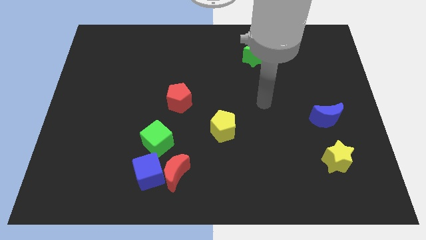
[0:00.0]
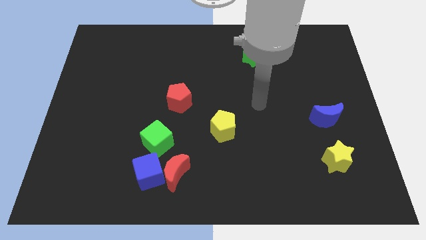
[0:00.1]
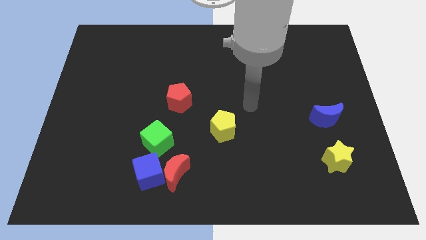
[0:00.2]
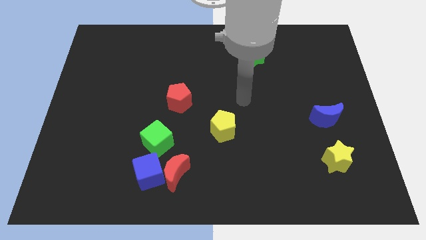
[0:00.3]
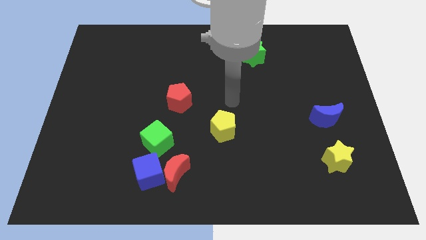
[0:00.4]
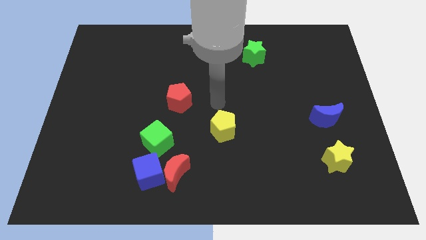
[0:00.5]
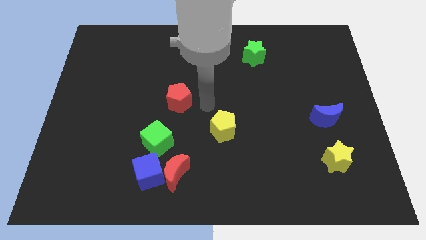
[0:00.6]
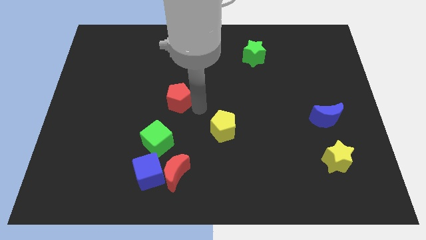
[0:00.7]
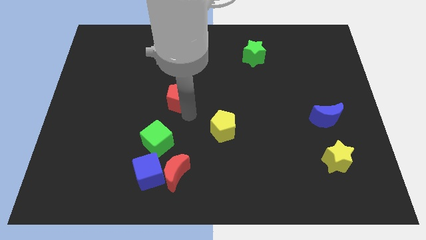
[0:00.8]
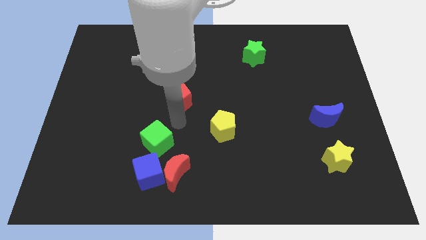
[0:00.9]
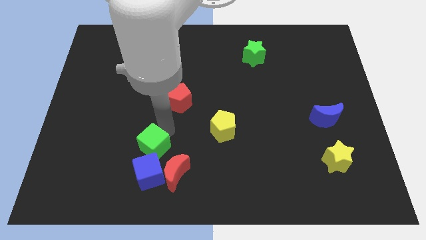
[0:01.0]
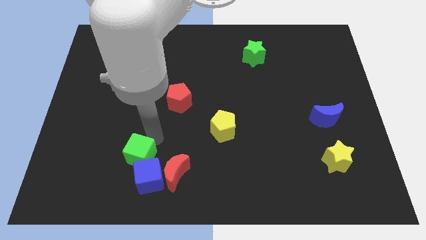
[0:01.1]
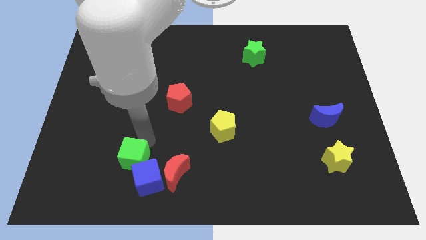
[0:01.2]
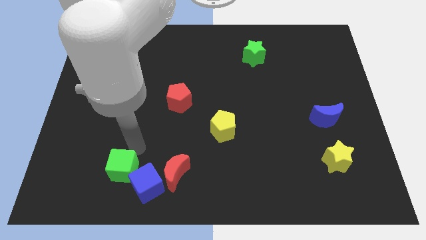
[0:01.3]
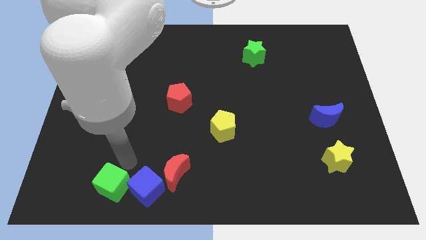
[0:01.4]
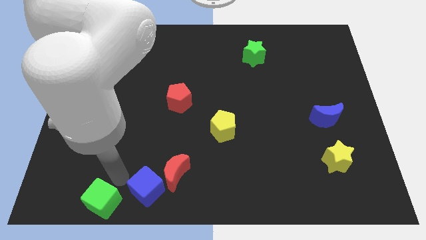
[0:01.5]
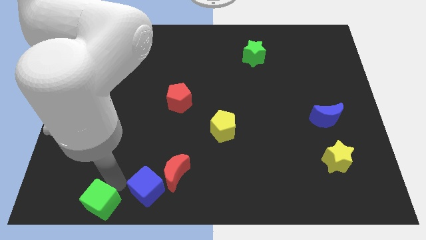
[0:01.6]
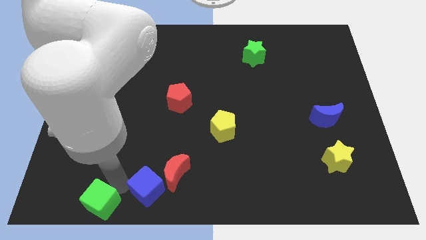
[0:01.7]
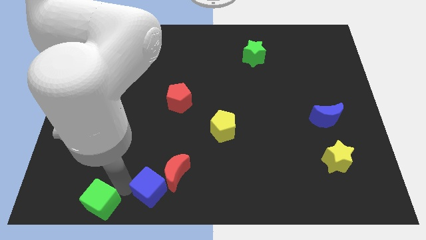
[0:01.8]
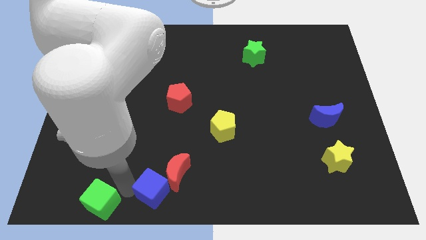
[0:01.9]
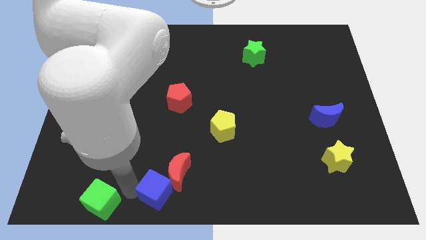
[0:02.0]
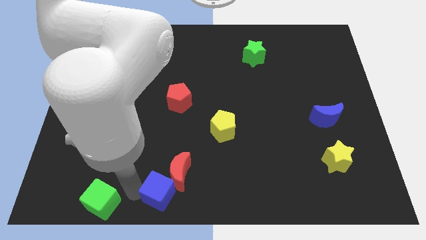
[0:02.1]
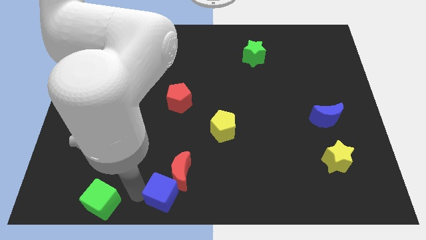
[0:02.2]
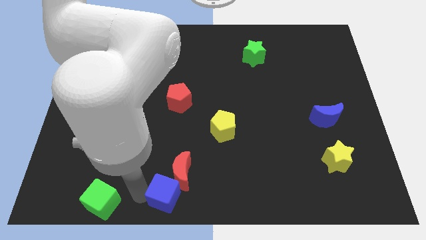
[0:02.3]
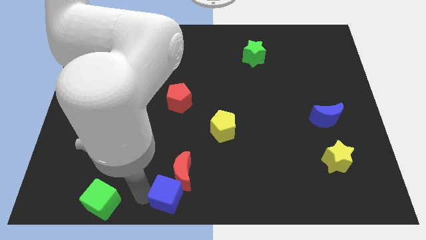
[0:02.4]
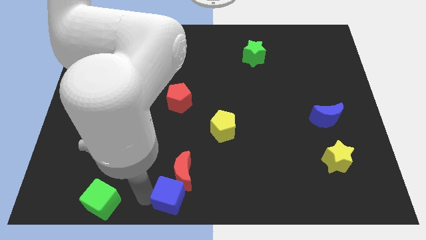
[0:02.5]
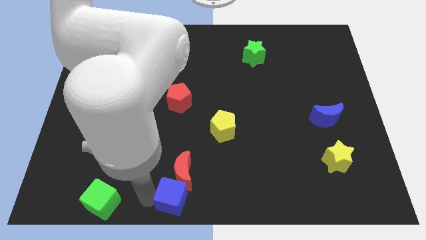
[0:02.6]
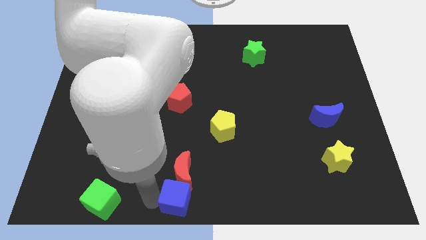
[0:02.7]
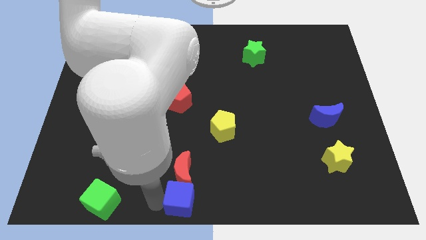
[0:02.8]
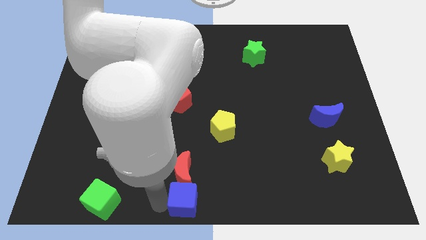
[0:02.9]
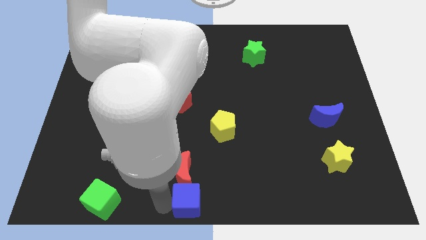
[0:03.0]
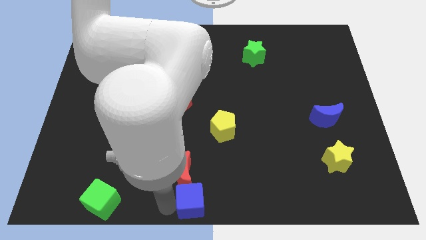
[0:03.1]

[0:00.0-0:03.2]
slide the blue cube right somewhat

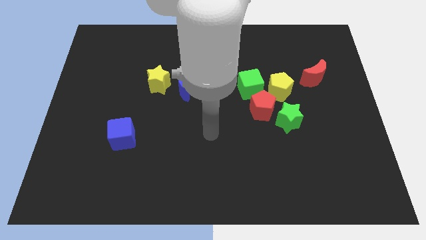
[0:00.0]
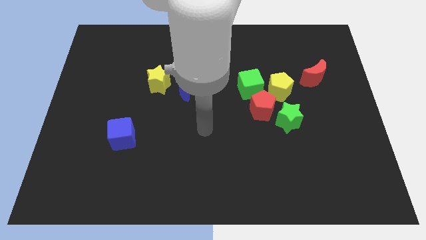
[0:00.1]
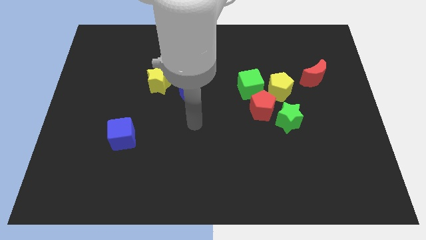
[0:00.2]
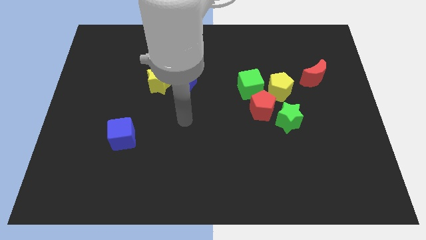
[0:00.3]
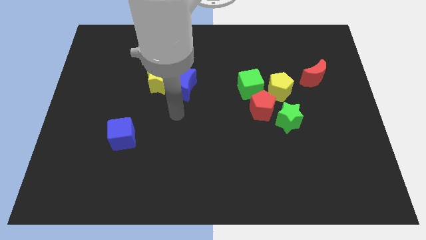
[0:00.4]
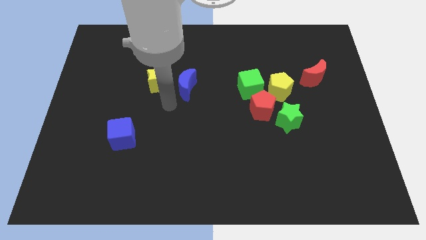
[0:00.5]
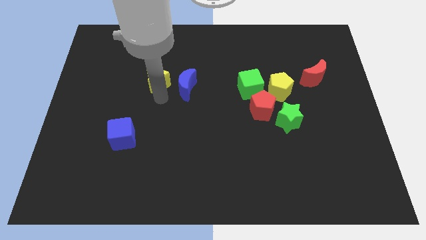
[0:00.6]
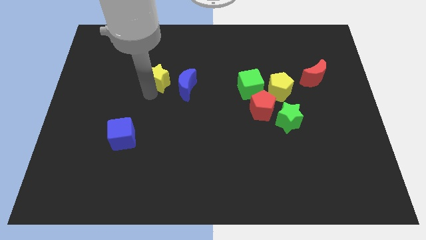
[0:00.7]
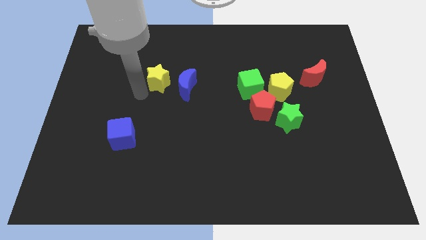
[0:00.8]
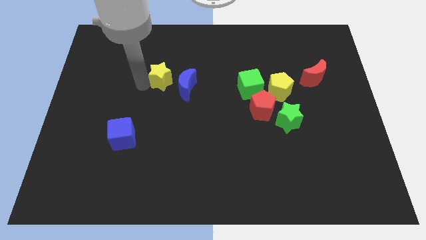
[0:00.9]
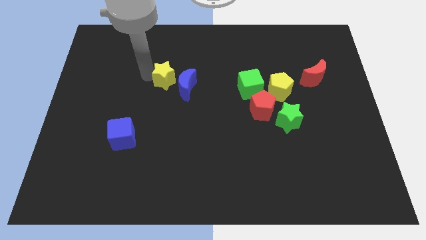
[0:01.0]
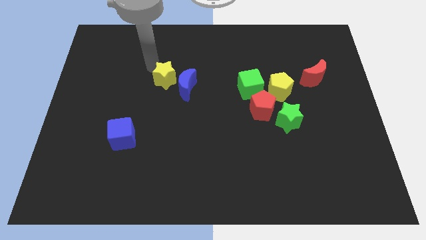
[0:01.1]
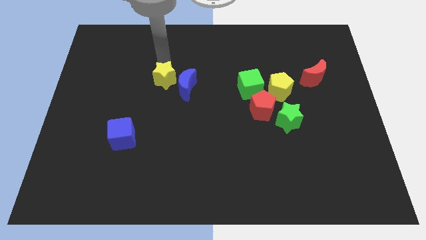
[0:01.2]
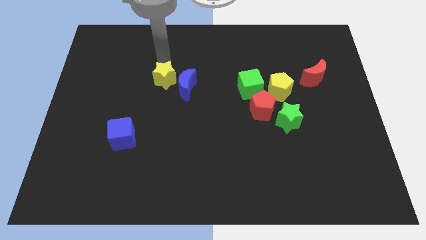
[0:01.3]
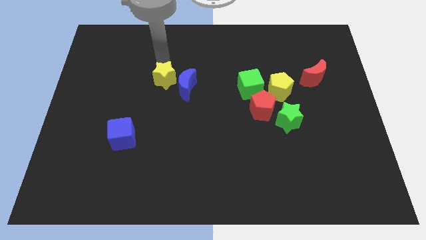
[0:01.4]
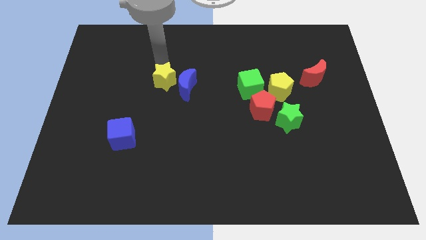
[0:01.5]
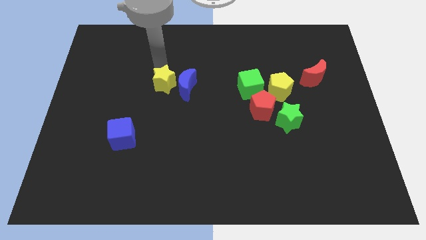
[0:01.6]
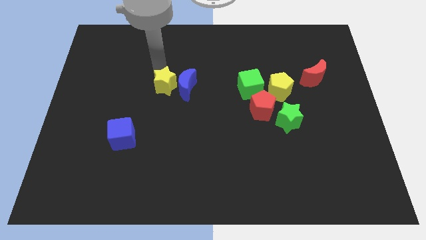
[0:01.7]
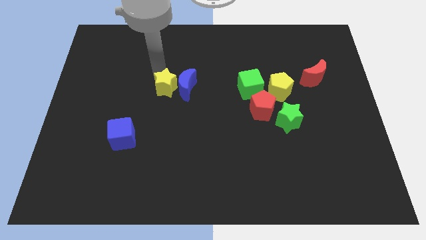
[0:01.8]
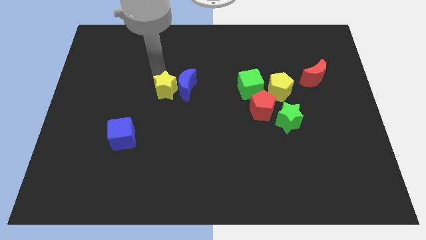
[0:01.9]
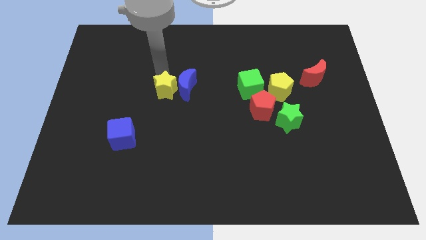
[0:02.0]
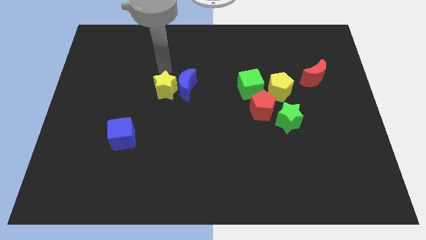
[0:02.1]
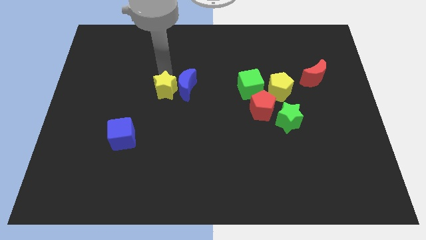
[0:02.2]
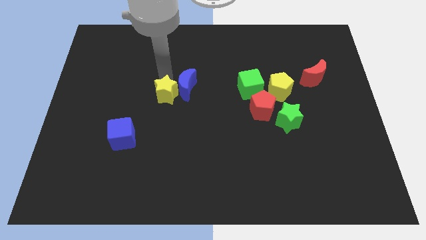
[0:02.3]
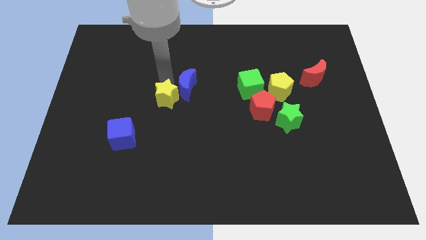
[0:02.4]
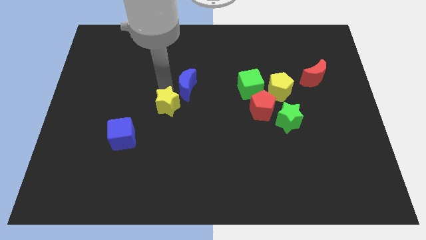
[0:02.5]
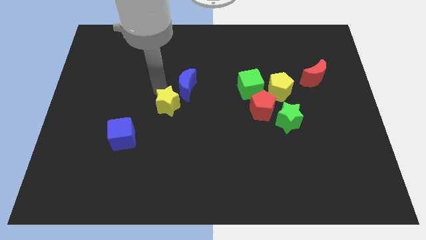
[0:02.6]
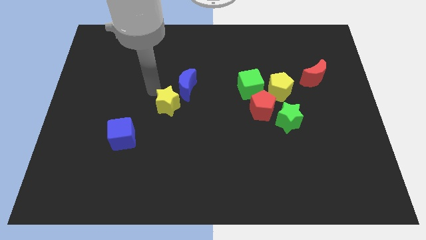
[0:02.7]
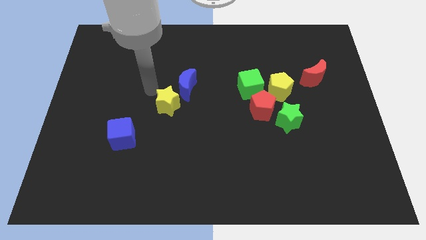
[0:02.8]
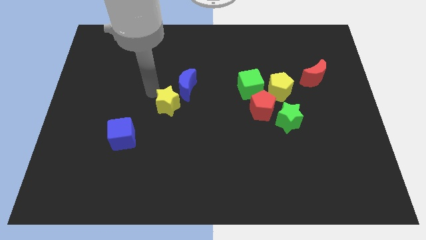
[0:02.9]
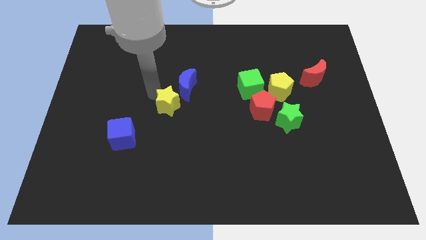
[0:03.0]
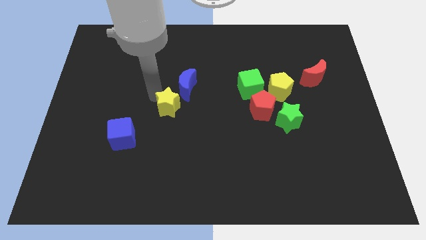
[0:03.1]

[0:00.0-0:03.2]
move the yellow star somewhat downwards and right

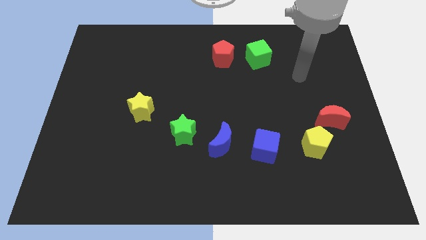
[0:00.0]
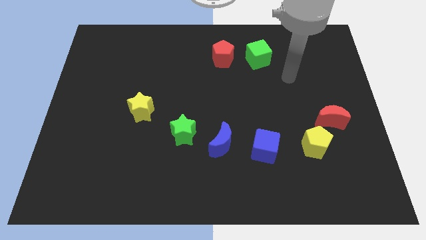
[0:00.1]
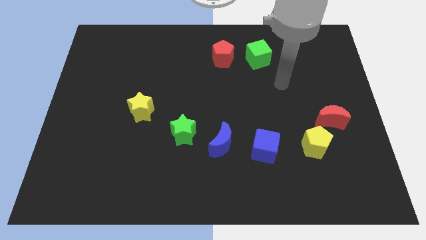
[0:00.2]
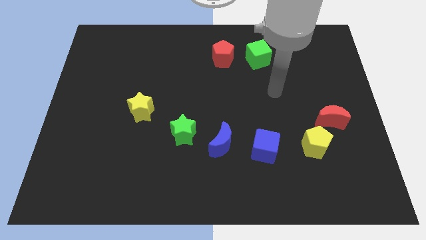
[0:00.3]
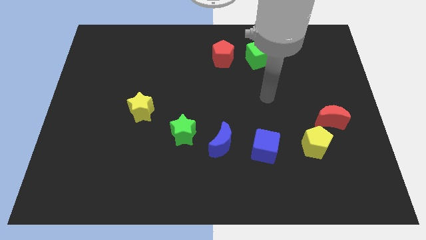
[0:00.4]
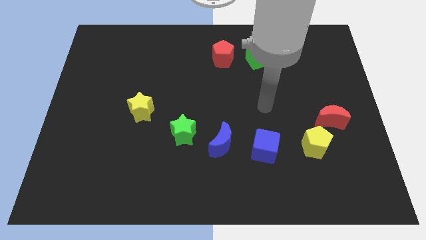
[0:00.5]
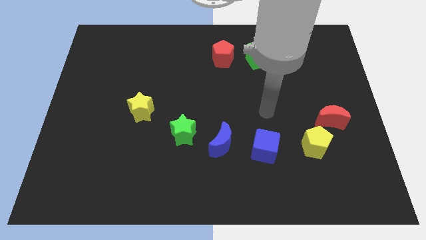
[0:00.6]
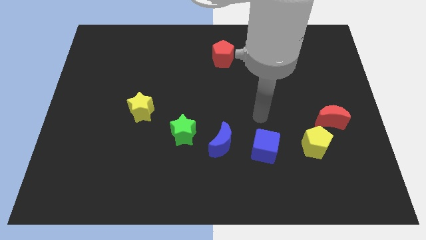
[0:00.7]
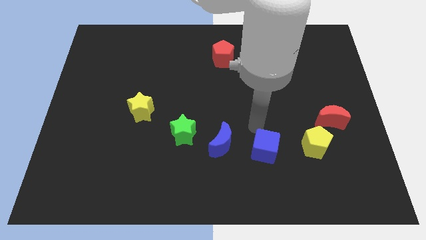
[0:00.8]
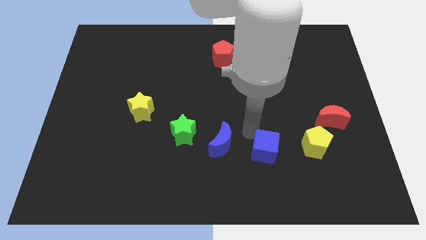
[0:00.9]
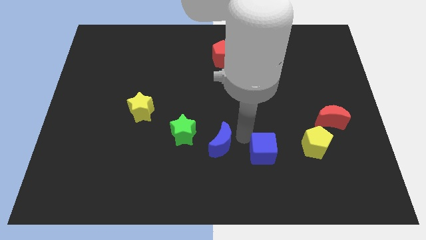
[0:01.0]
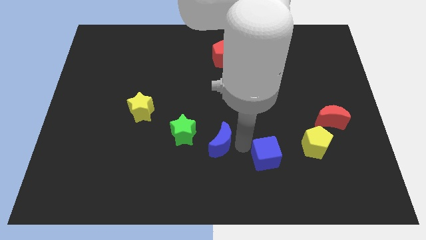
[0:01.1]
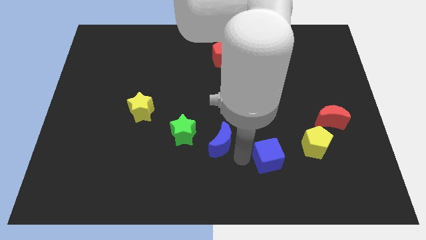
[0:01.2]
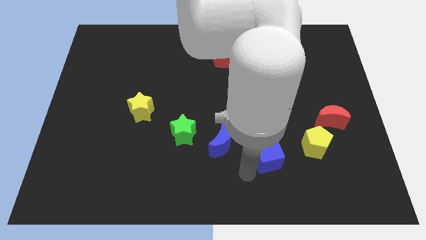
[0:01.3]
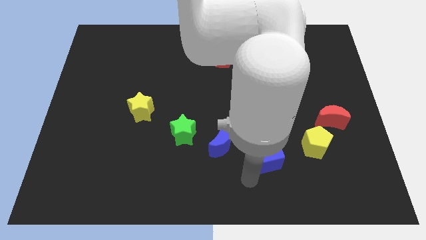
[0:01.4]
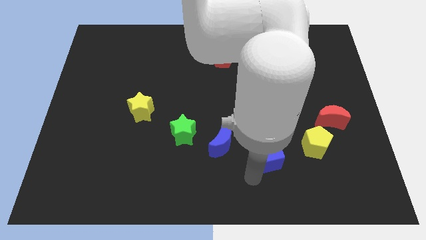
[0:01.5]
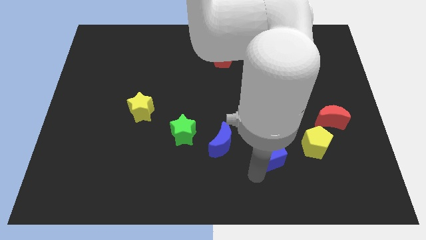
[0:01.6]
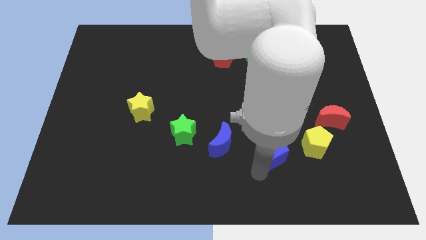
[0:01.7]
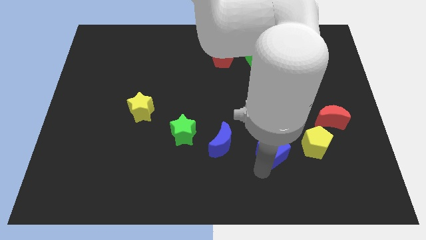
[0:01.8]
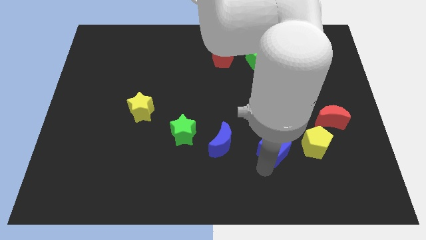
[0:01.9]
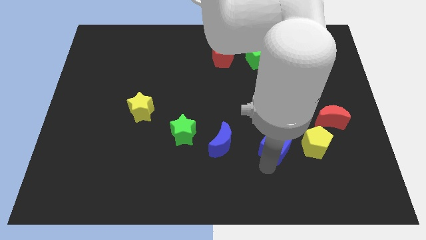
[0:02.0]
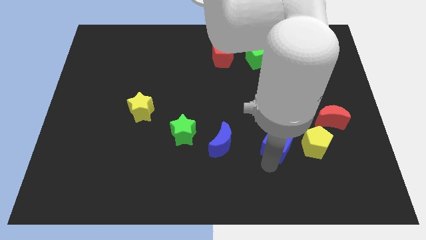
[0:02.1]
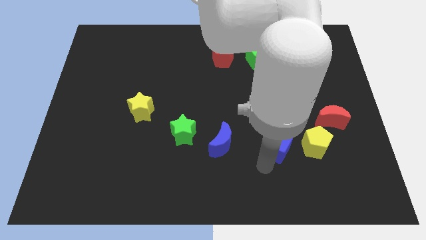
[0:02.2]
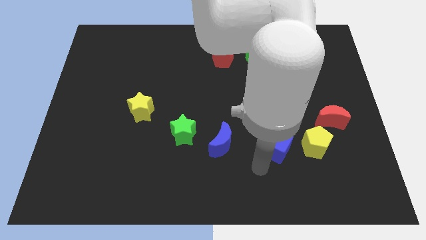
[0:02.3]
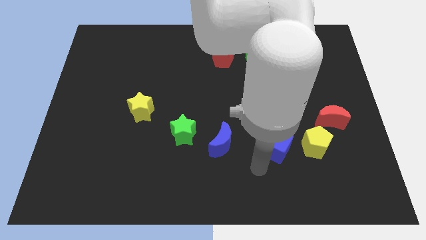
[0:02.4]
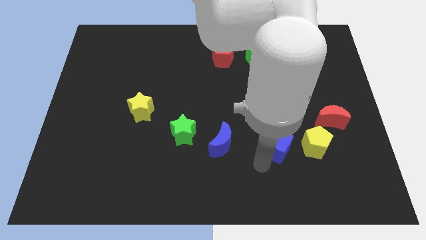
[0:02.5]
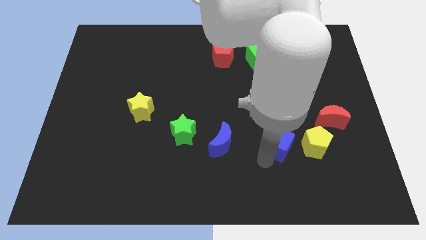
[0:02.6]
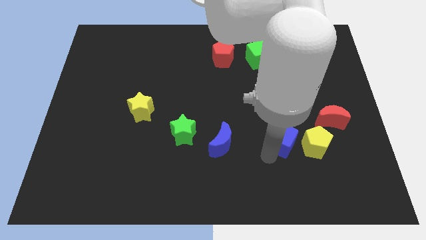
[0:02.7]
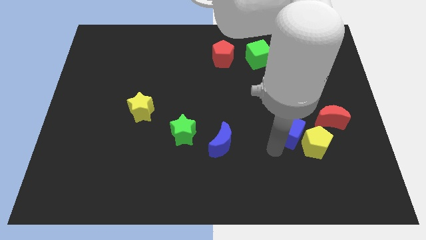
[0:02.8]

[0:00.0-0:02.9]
slide the blue cube upwards and to the right somewhat
